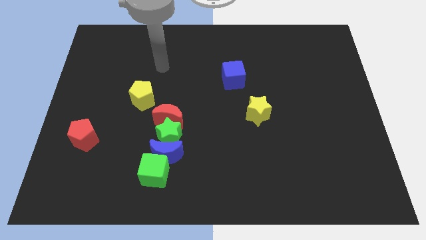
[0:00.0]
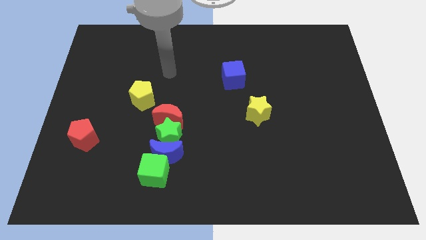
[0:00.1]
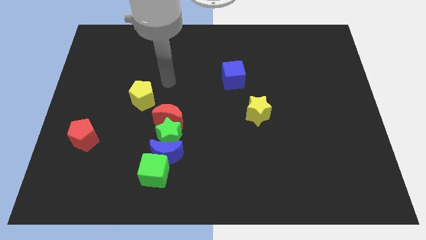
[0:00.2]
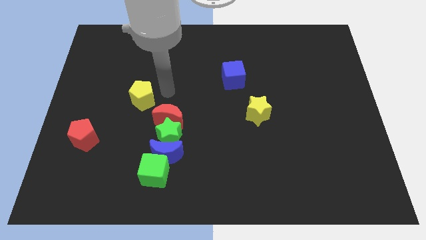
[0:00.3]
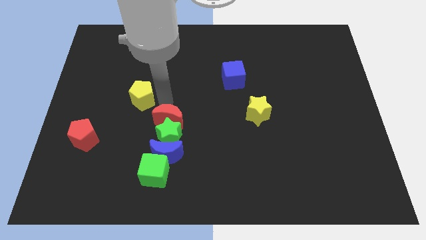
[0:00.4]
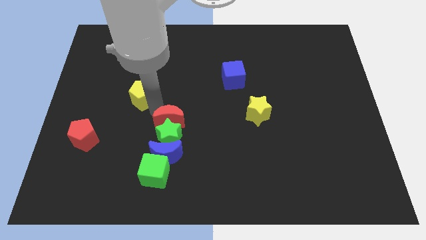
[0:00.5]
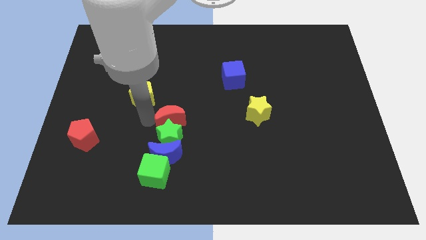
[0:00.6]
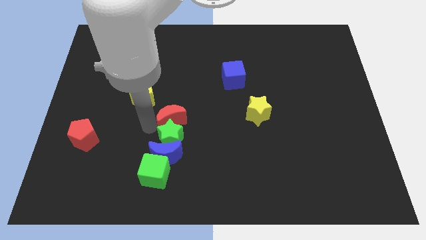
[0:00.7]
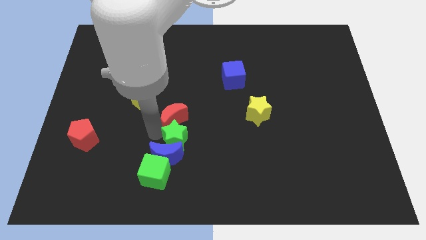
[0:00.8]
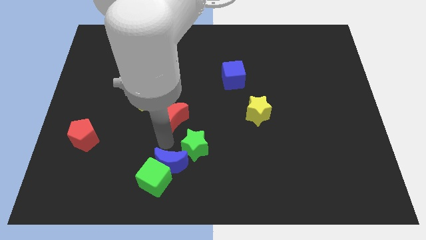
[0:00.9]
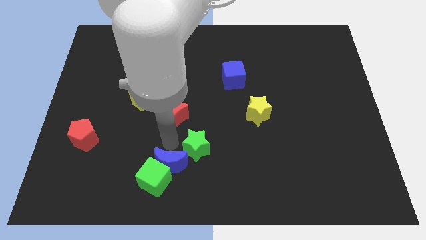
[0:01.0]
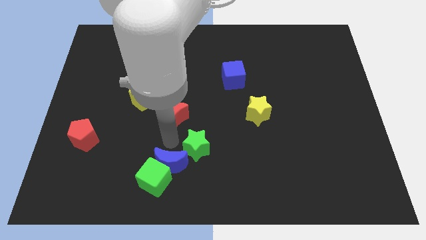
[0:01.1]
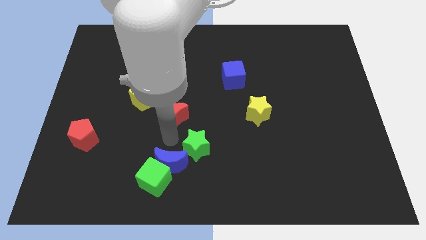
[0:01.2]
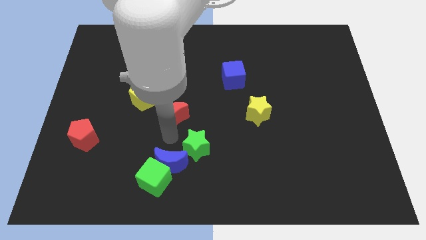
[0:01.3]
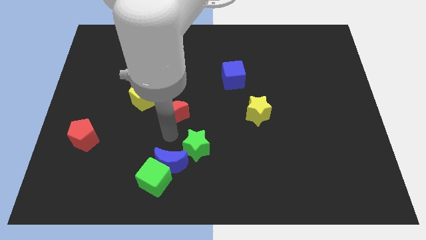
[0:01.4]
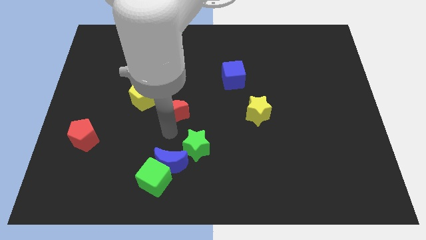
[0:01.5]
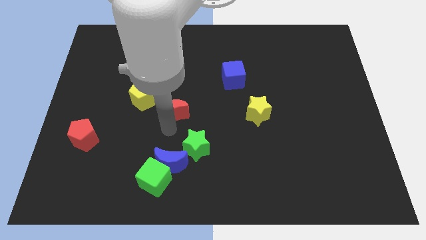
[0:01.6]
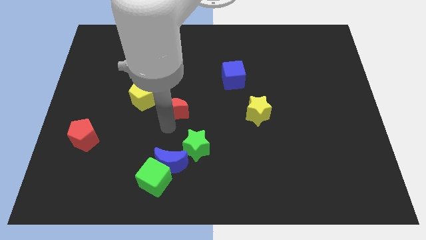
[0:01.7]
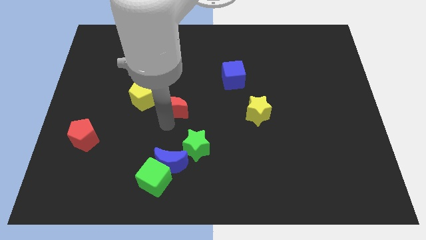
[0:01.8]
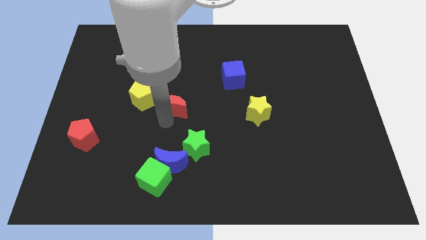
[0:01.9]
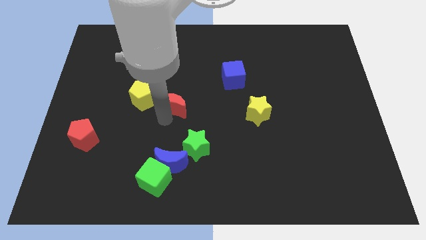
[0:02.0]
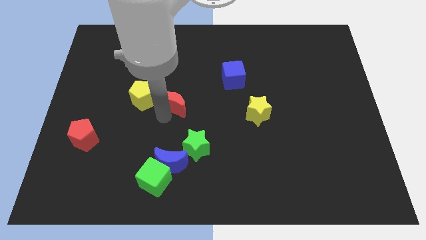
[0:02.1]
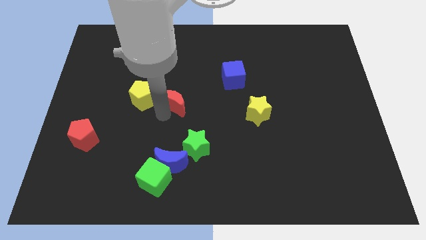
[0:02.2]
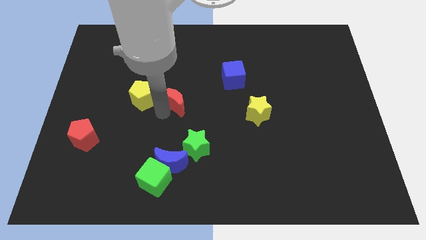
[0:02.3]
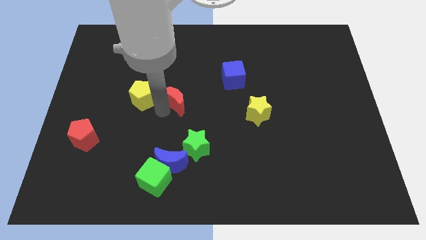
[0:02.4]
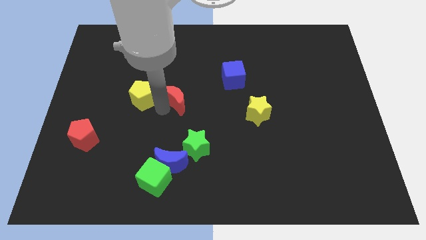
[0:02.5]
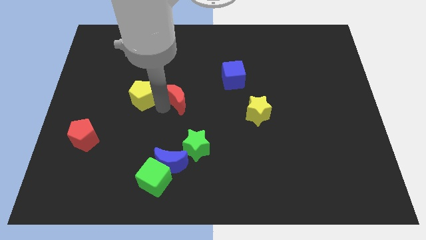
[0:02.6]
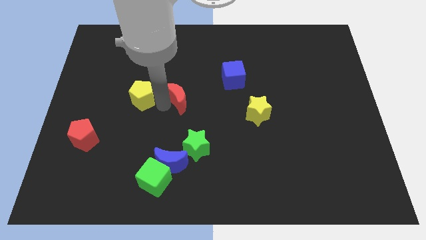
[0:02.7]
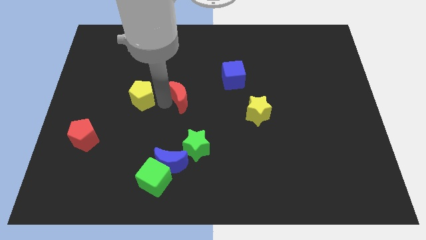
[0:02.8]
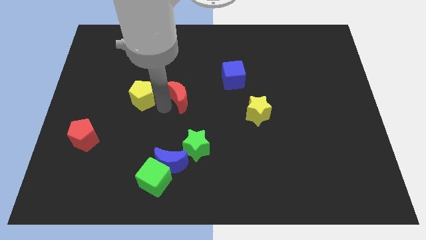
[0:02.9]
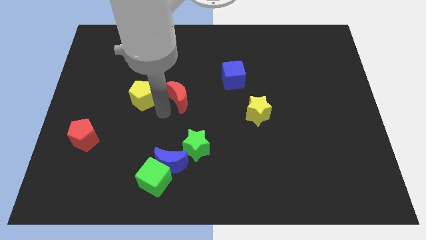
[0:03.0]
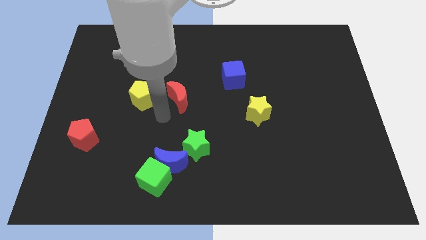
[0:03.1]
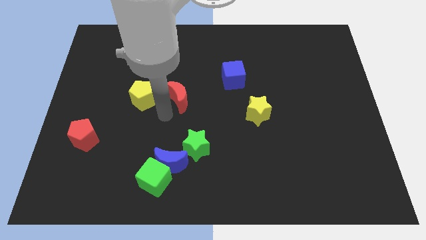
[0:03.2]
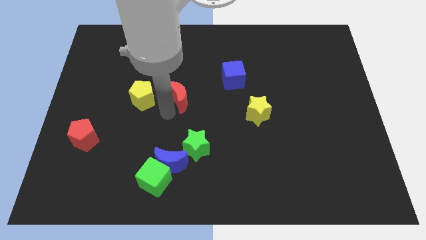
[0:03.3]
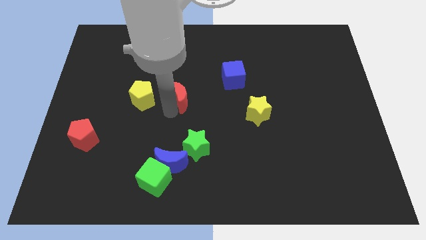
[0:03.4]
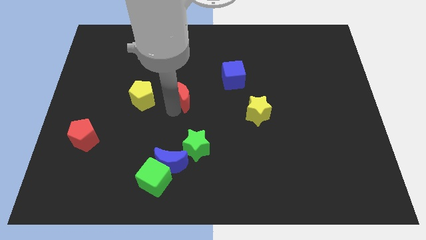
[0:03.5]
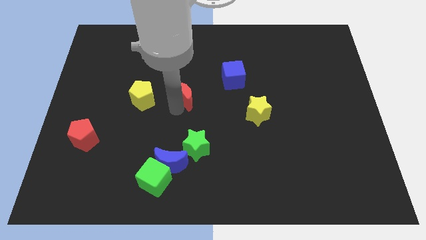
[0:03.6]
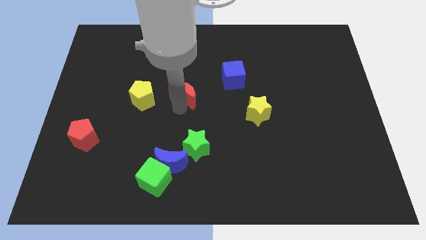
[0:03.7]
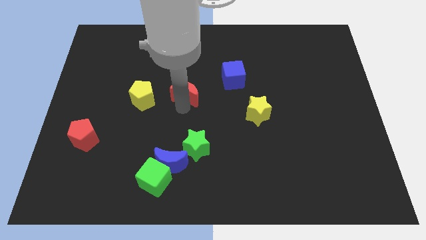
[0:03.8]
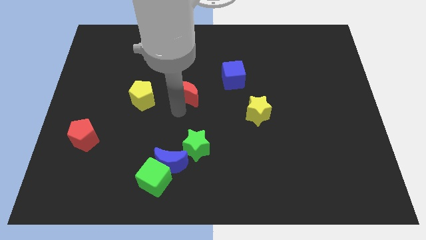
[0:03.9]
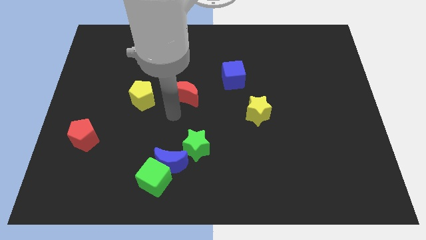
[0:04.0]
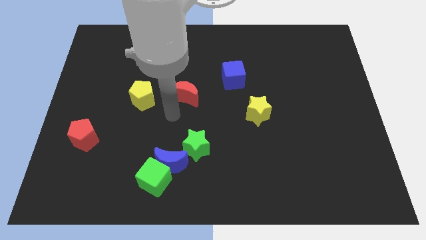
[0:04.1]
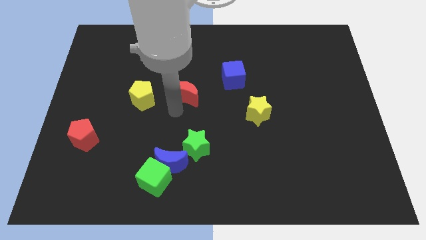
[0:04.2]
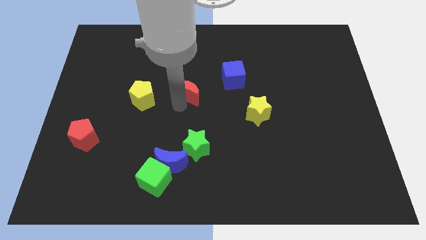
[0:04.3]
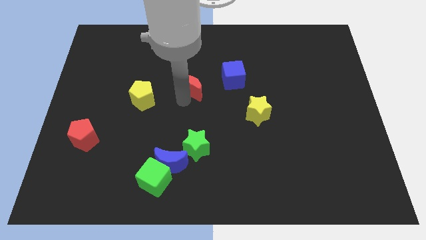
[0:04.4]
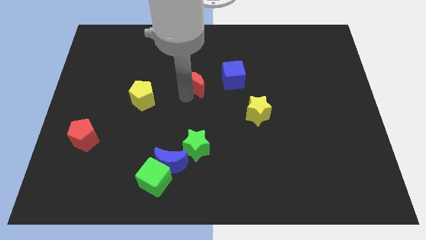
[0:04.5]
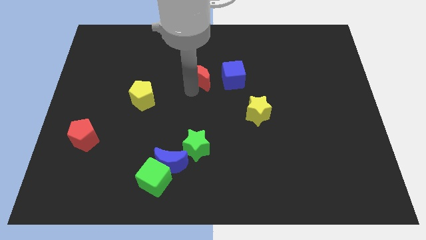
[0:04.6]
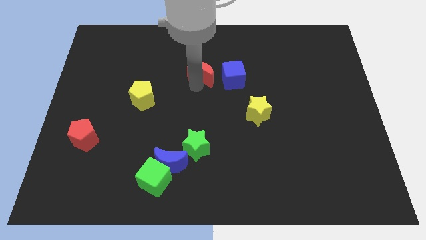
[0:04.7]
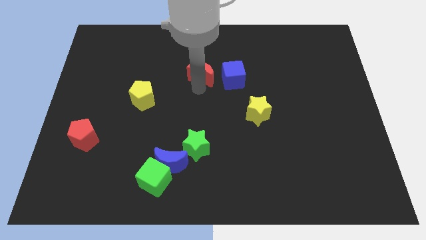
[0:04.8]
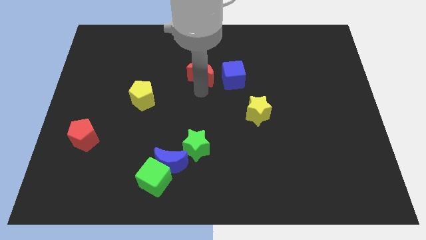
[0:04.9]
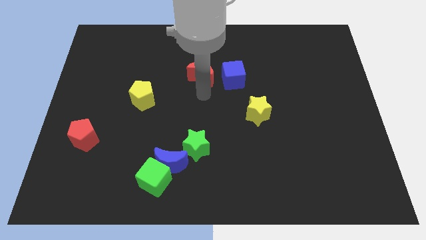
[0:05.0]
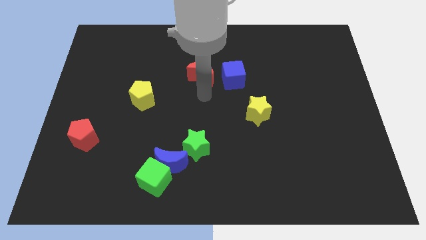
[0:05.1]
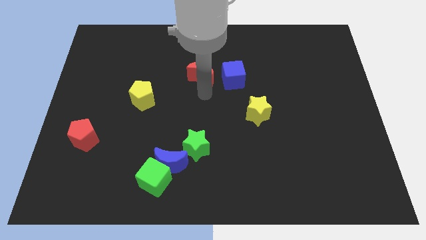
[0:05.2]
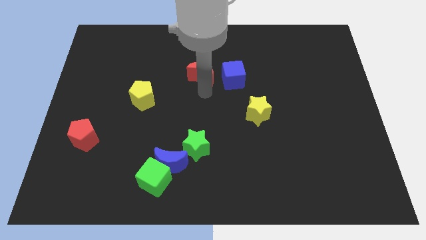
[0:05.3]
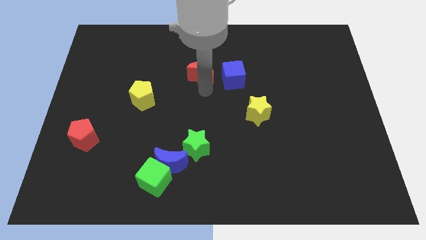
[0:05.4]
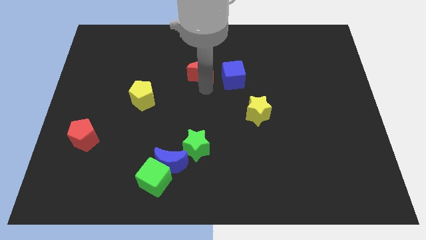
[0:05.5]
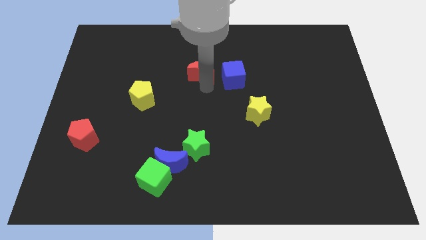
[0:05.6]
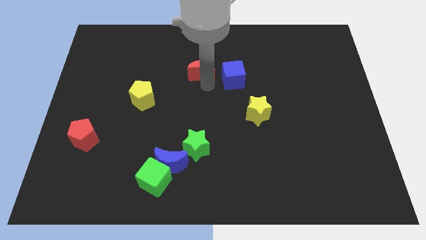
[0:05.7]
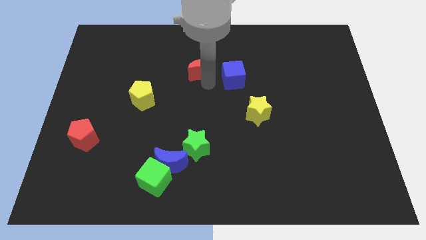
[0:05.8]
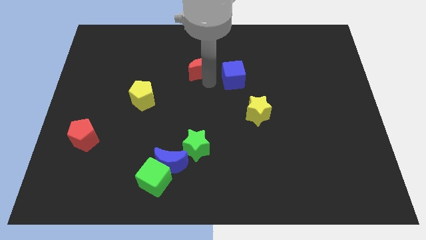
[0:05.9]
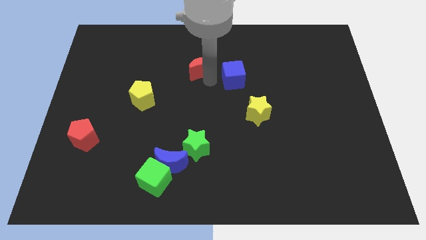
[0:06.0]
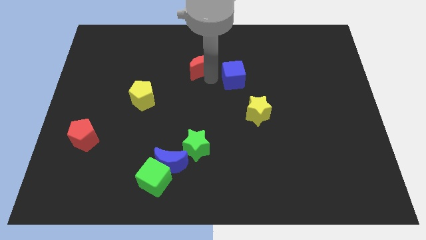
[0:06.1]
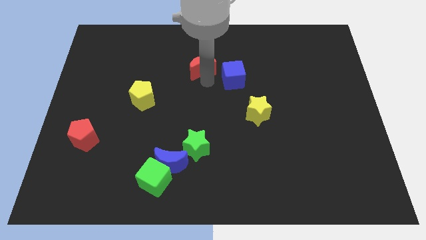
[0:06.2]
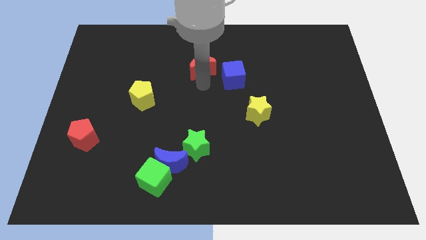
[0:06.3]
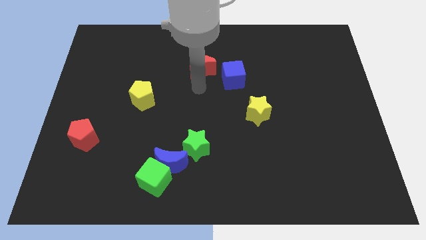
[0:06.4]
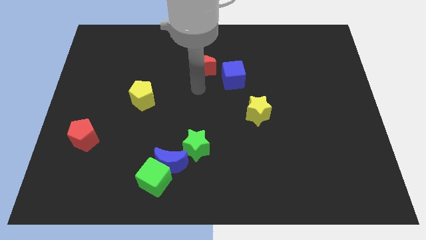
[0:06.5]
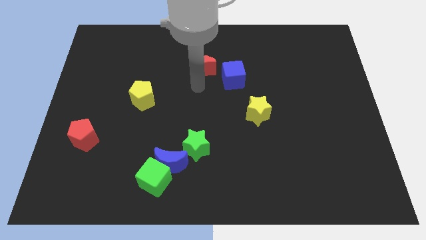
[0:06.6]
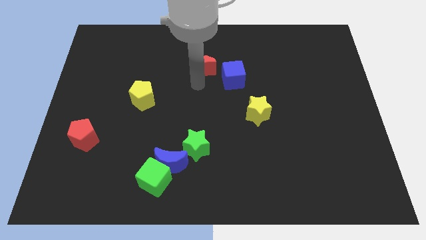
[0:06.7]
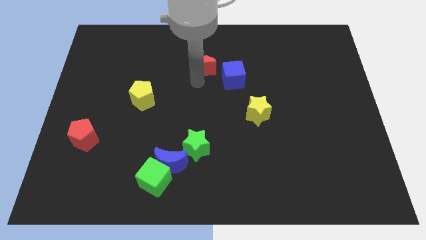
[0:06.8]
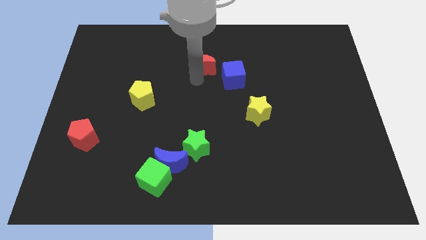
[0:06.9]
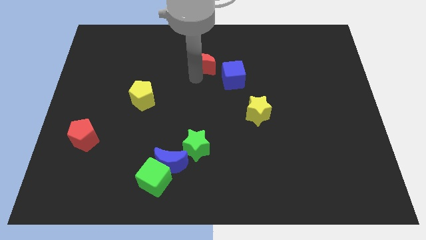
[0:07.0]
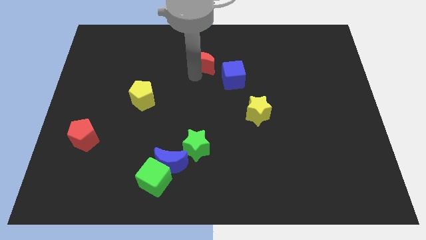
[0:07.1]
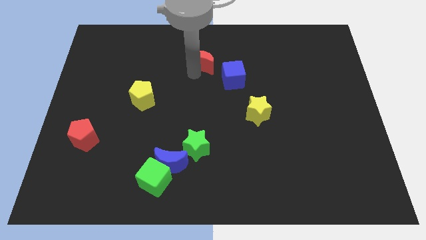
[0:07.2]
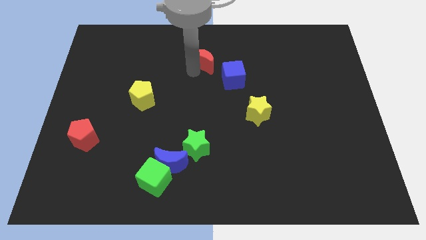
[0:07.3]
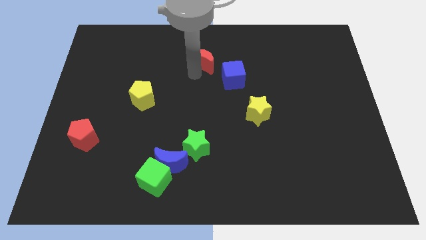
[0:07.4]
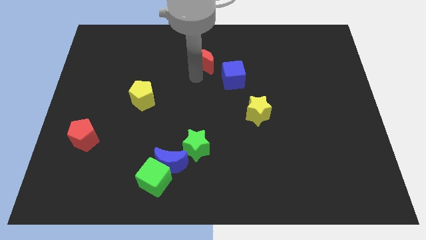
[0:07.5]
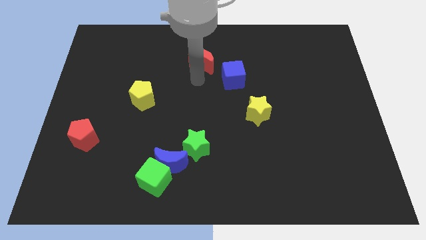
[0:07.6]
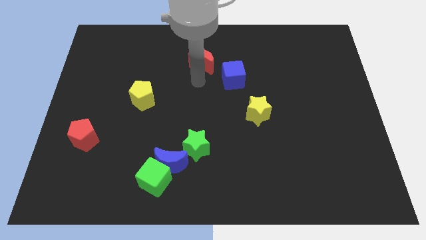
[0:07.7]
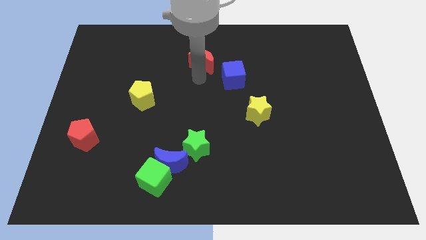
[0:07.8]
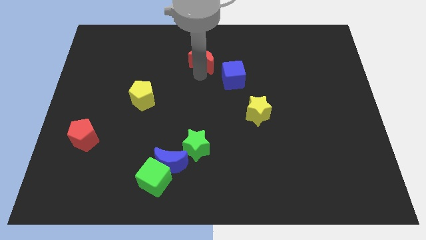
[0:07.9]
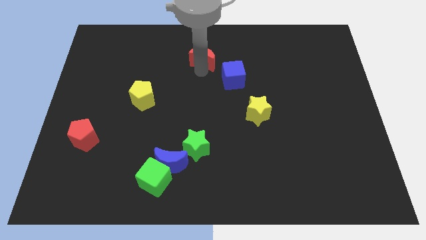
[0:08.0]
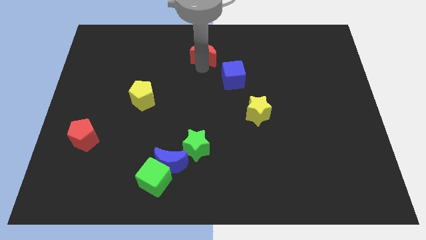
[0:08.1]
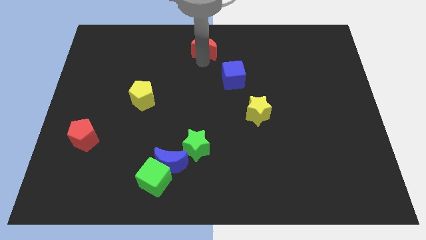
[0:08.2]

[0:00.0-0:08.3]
slide the red moon to the towards your base
